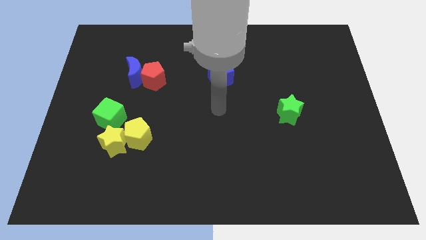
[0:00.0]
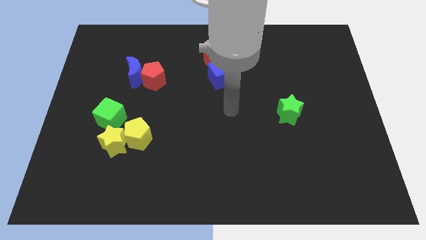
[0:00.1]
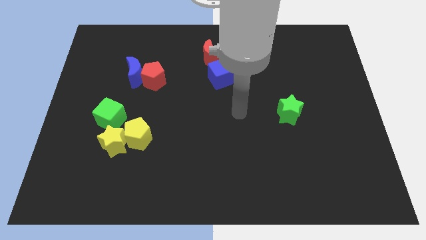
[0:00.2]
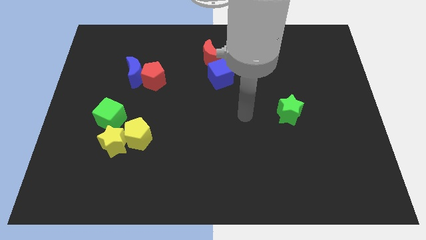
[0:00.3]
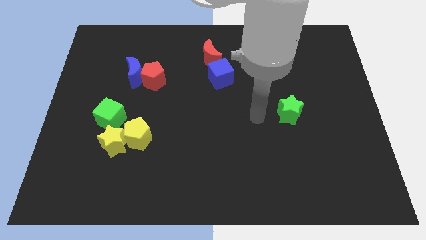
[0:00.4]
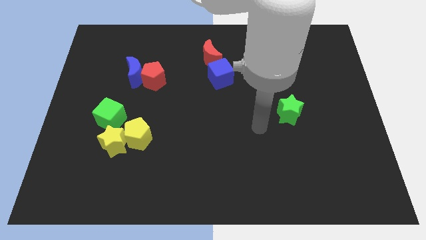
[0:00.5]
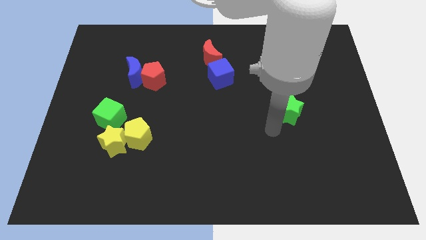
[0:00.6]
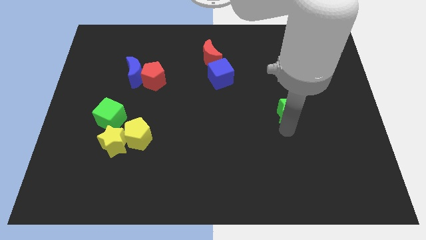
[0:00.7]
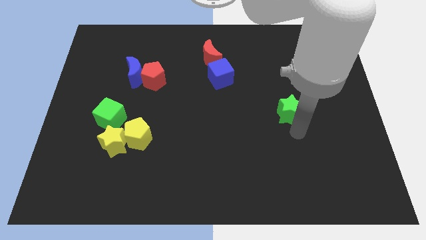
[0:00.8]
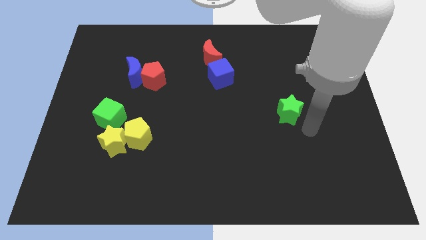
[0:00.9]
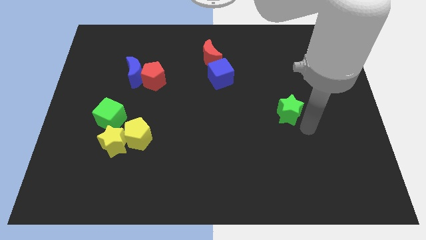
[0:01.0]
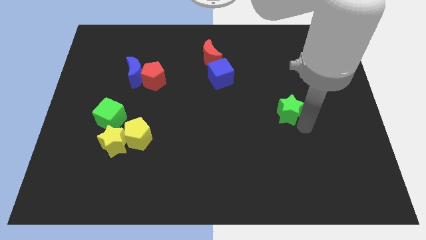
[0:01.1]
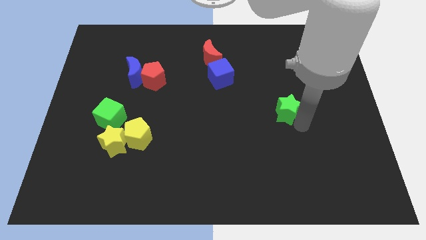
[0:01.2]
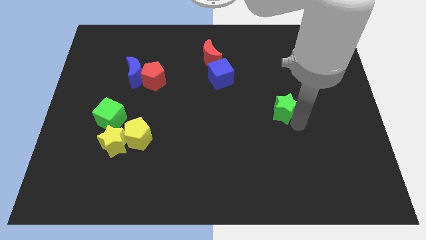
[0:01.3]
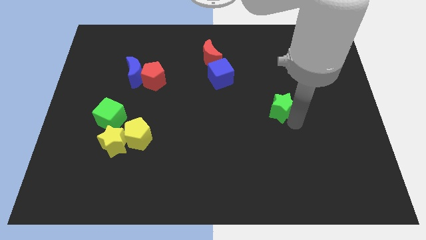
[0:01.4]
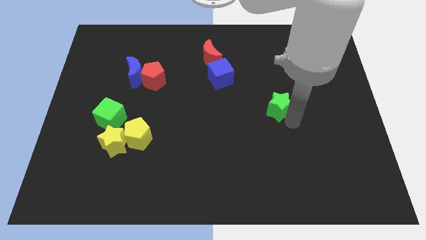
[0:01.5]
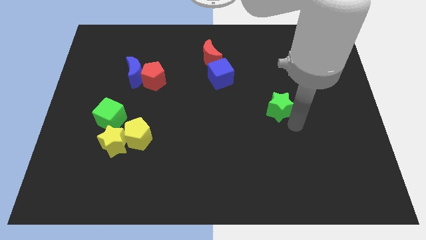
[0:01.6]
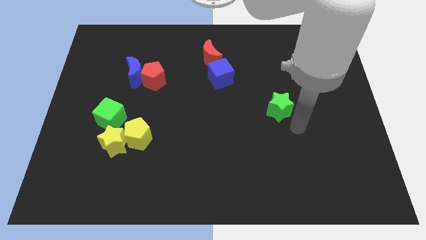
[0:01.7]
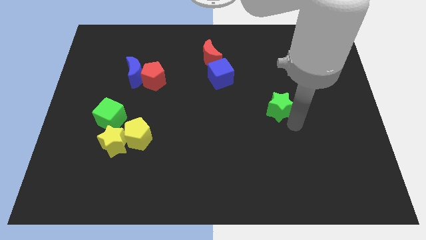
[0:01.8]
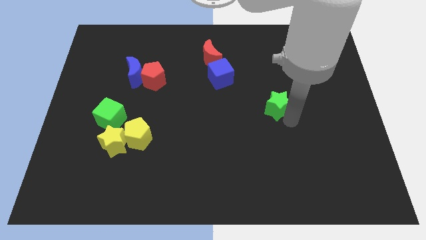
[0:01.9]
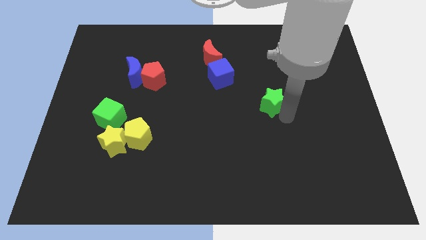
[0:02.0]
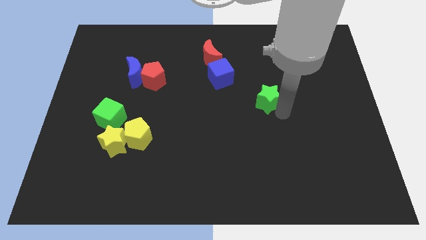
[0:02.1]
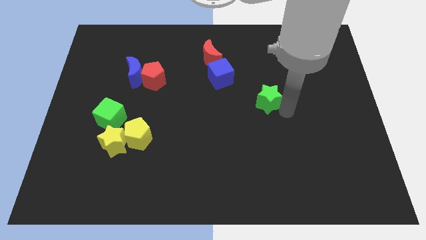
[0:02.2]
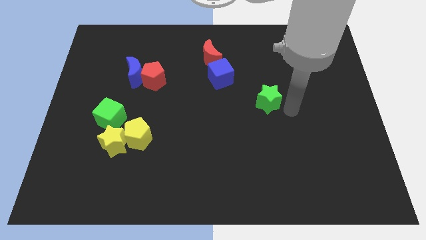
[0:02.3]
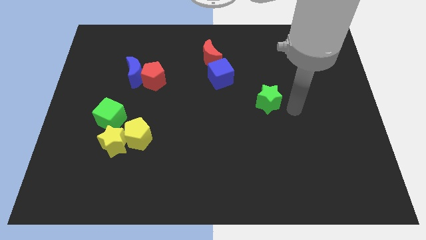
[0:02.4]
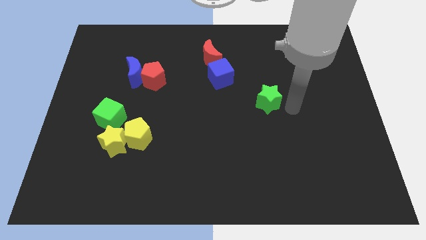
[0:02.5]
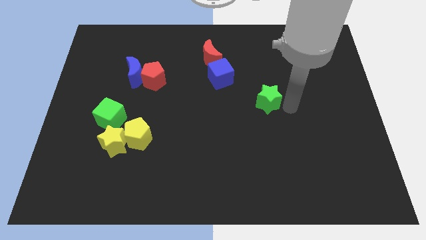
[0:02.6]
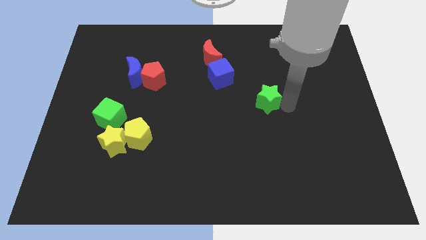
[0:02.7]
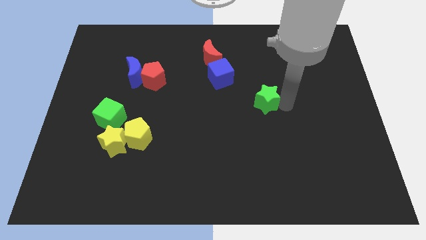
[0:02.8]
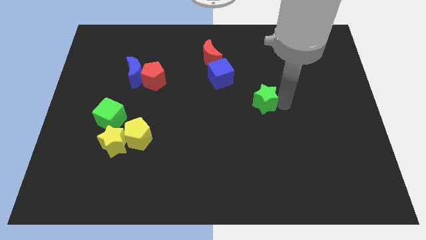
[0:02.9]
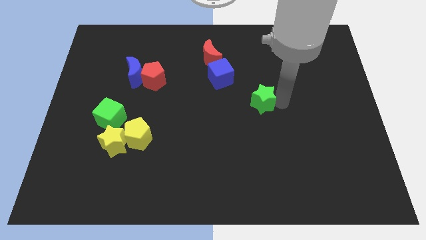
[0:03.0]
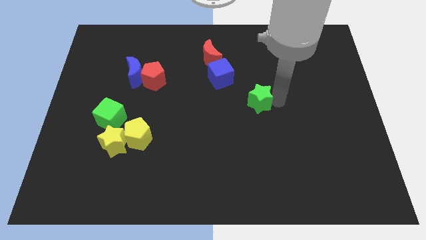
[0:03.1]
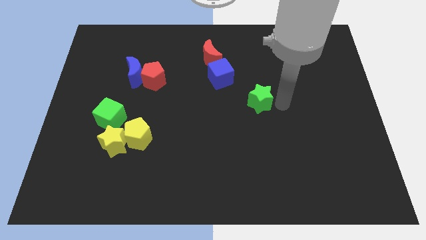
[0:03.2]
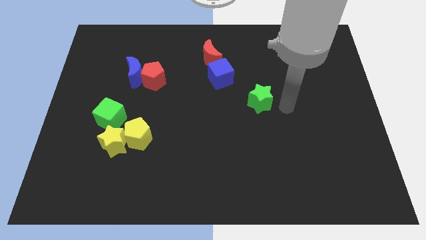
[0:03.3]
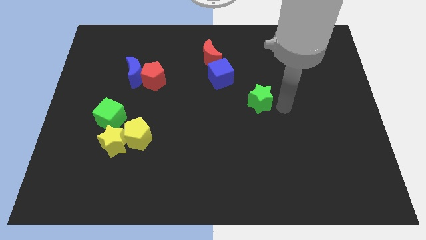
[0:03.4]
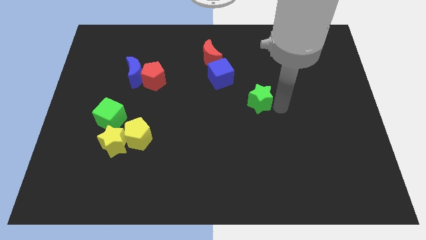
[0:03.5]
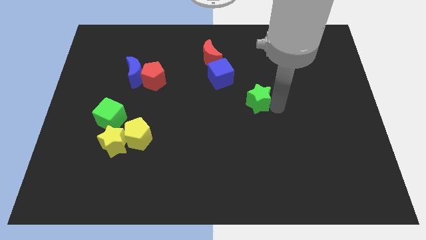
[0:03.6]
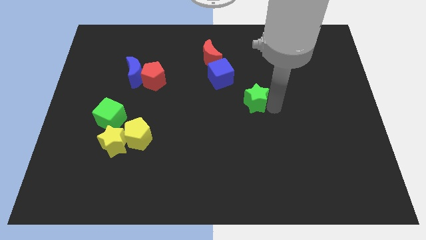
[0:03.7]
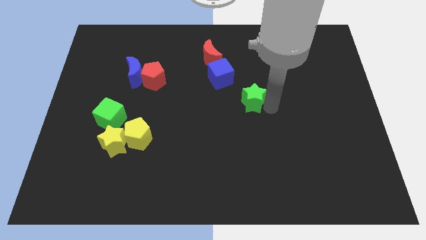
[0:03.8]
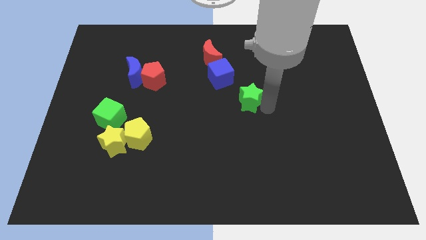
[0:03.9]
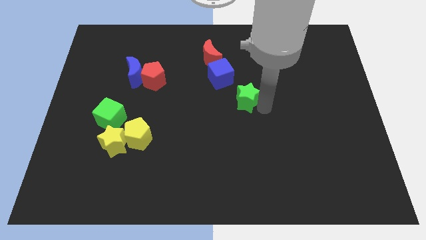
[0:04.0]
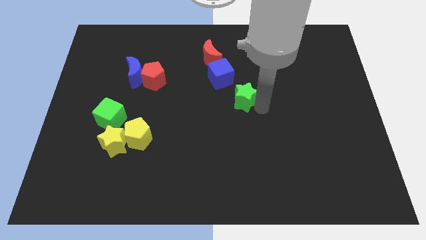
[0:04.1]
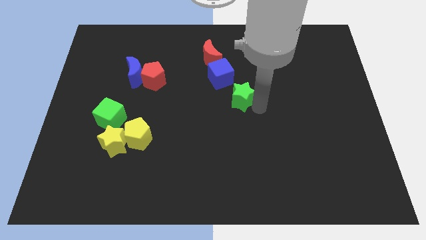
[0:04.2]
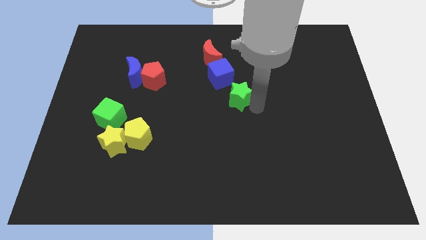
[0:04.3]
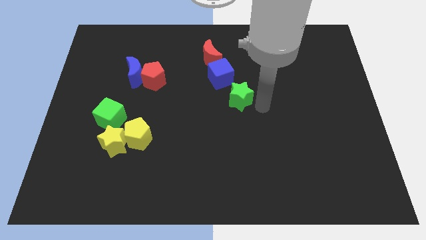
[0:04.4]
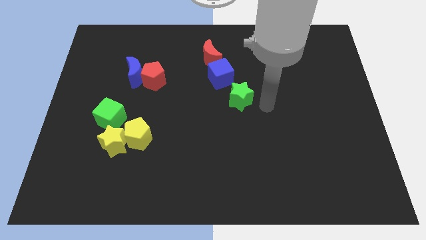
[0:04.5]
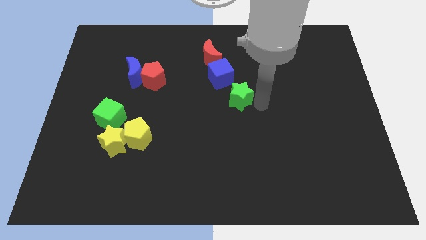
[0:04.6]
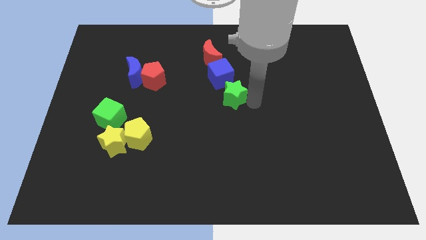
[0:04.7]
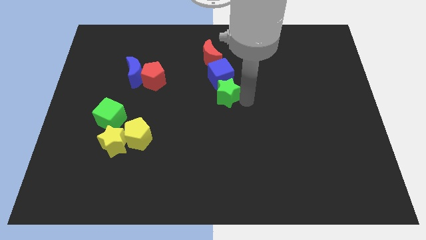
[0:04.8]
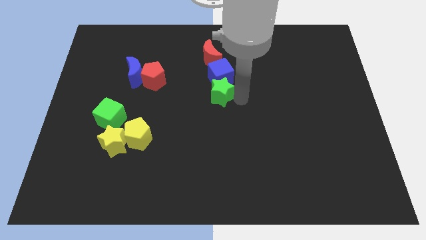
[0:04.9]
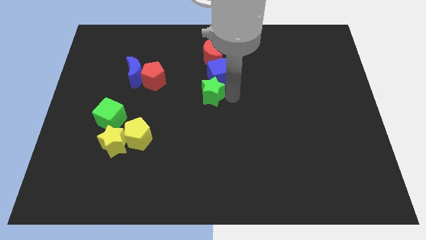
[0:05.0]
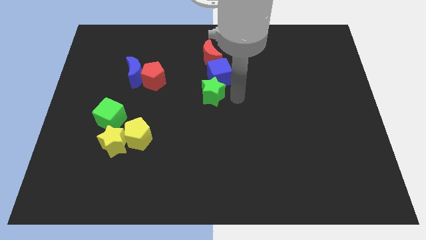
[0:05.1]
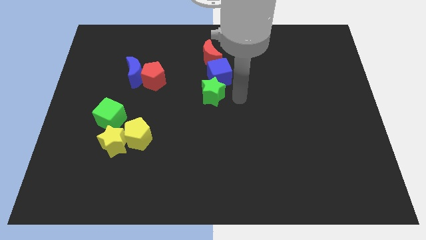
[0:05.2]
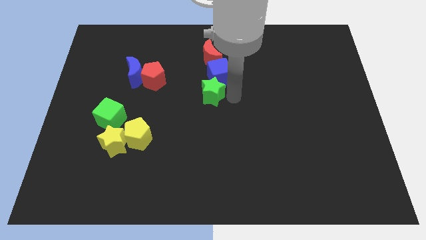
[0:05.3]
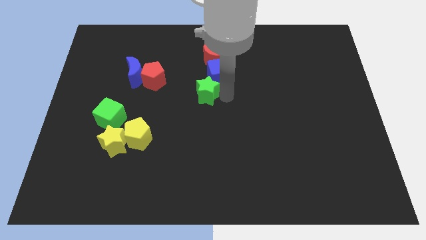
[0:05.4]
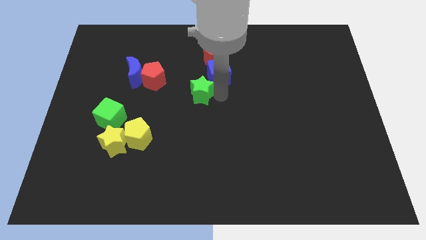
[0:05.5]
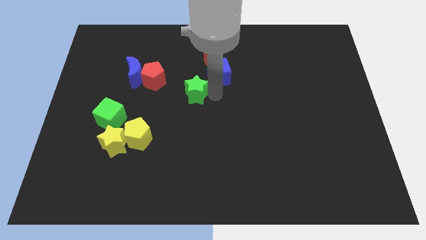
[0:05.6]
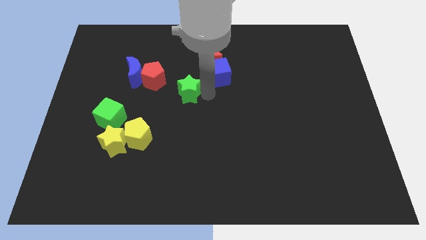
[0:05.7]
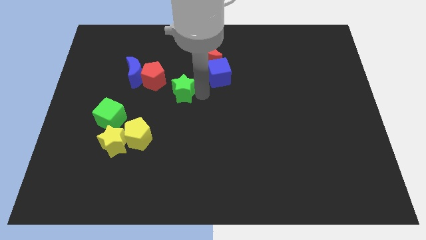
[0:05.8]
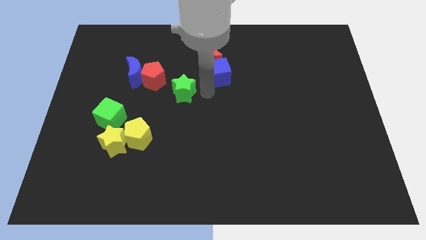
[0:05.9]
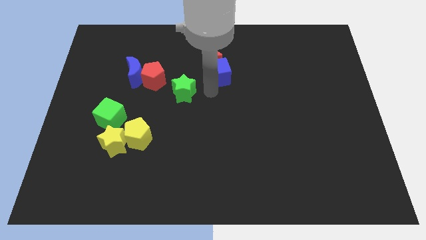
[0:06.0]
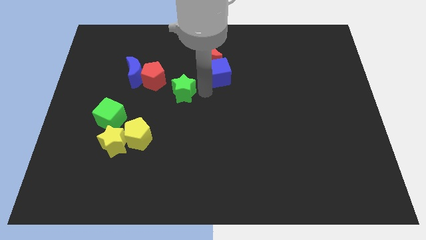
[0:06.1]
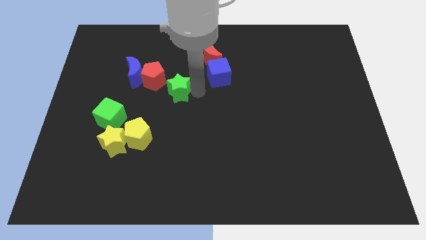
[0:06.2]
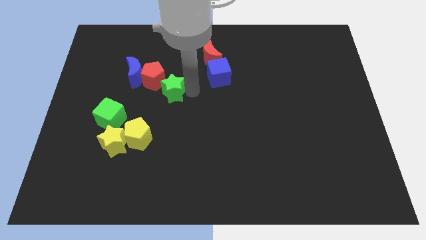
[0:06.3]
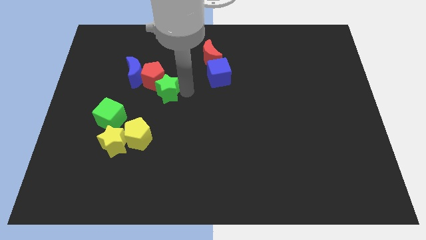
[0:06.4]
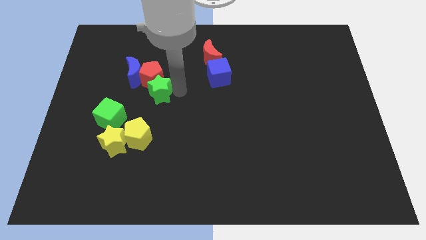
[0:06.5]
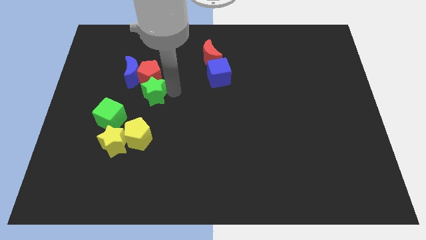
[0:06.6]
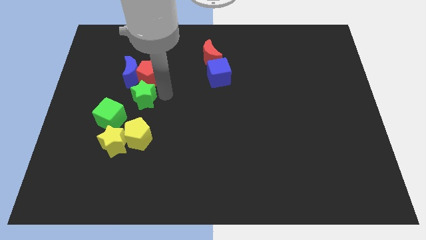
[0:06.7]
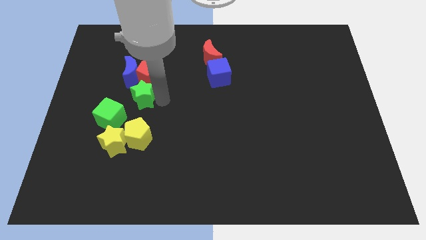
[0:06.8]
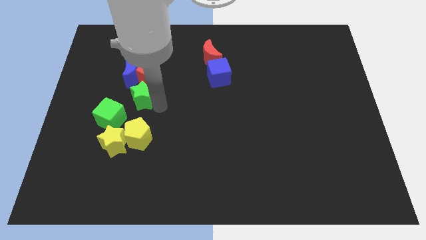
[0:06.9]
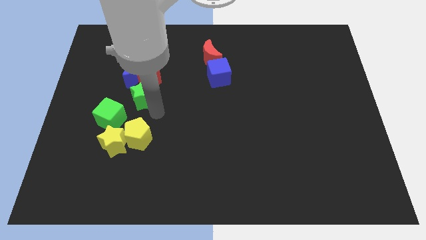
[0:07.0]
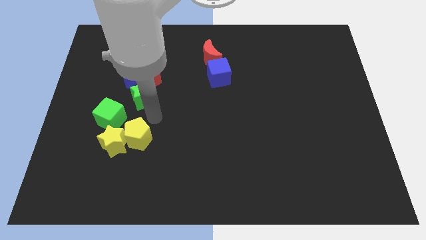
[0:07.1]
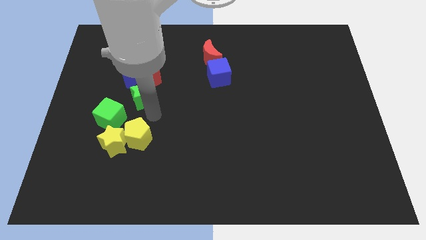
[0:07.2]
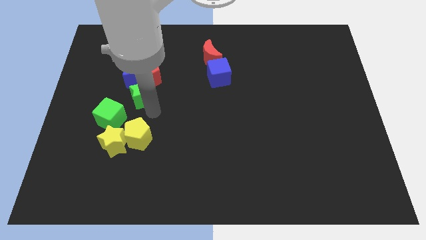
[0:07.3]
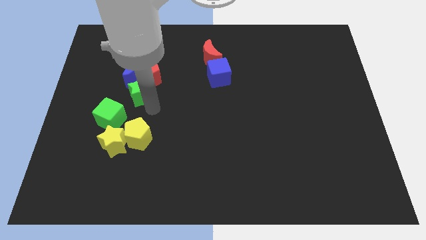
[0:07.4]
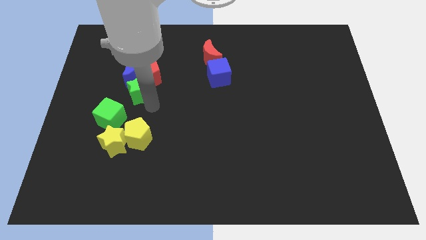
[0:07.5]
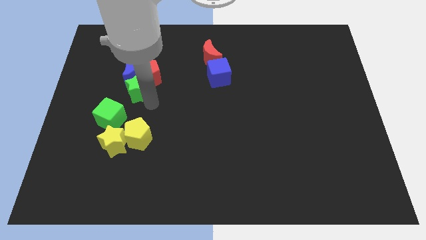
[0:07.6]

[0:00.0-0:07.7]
push the green star to the blue moon
